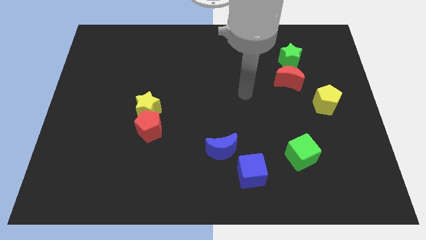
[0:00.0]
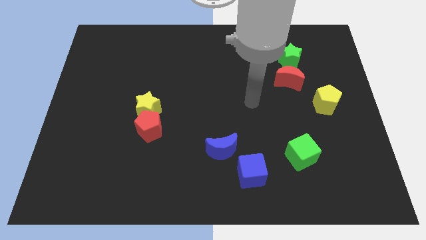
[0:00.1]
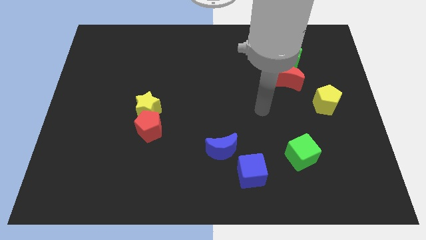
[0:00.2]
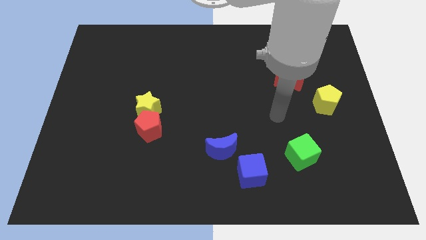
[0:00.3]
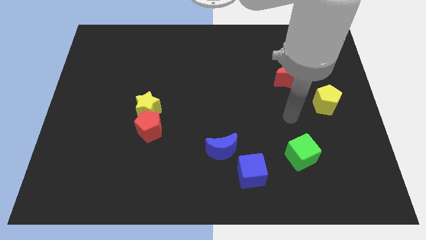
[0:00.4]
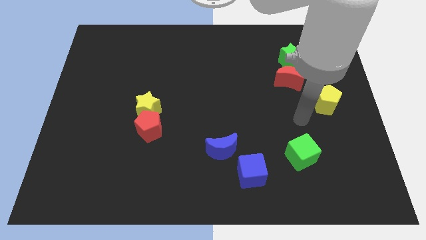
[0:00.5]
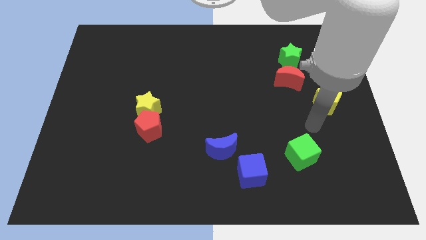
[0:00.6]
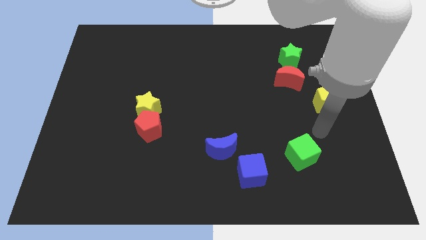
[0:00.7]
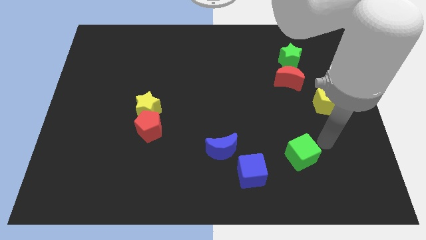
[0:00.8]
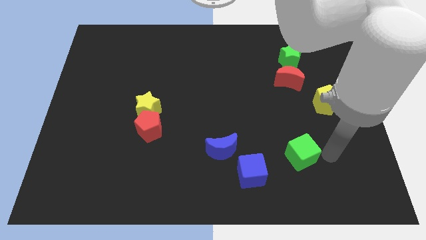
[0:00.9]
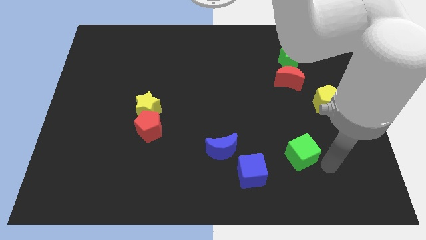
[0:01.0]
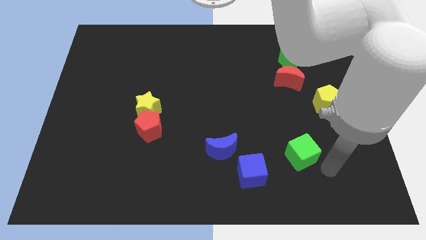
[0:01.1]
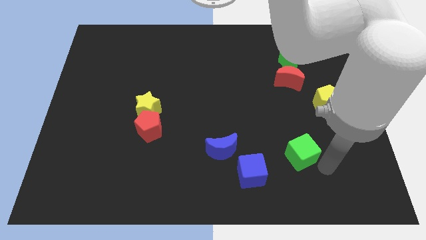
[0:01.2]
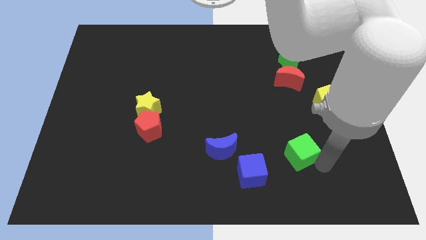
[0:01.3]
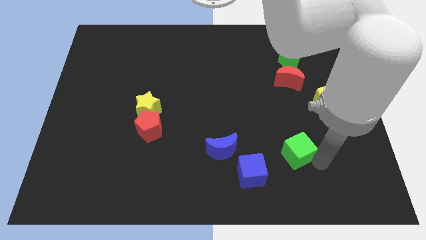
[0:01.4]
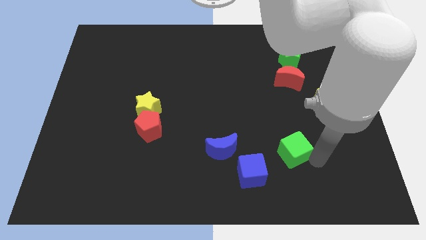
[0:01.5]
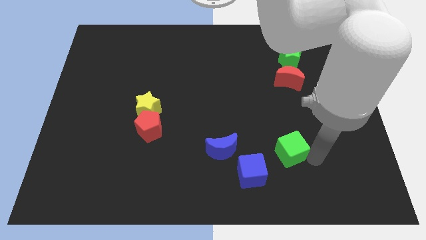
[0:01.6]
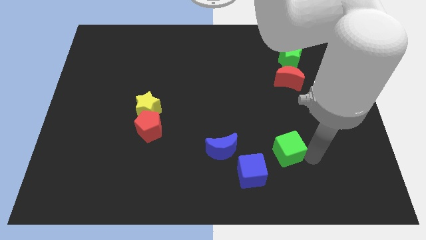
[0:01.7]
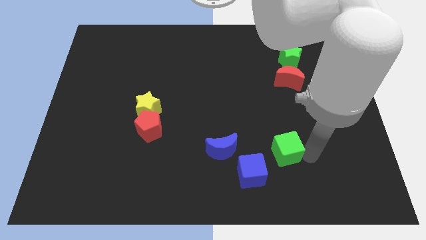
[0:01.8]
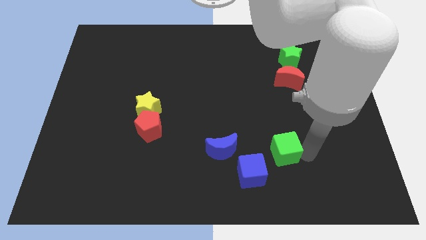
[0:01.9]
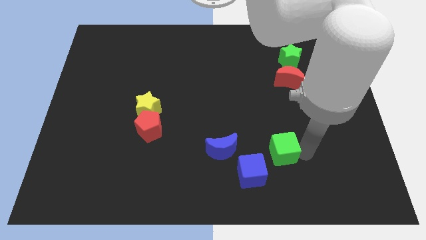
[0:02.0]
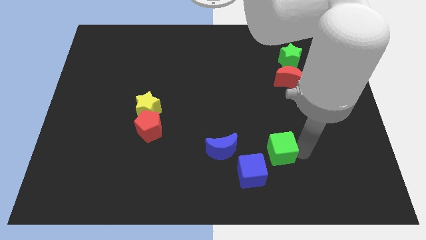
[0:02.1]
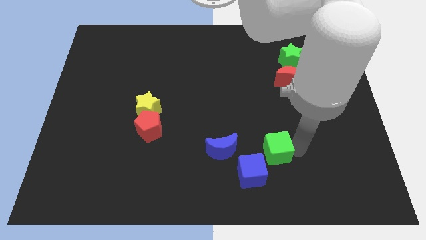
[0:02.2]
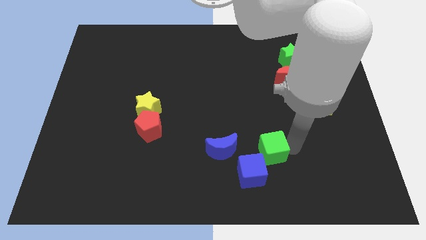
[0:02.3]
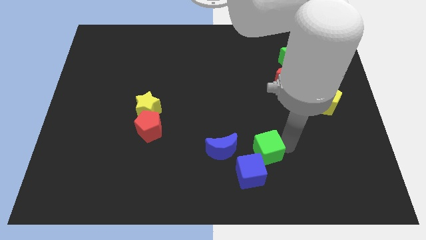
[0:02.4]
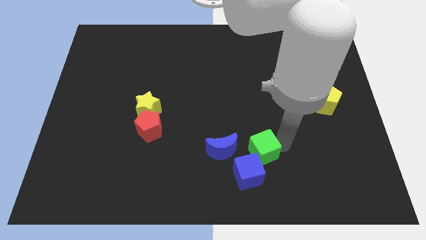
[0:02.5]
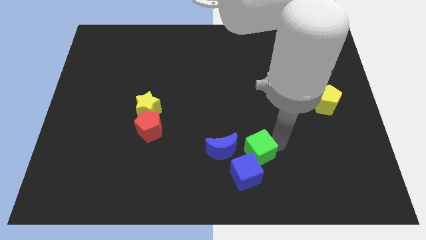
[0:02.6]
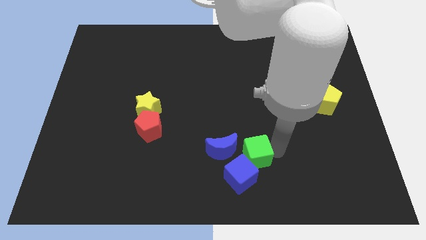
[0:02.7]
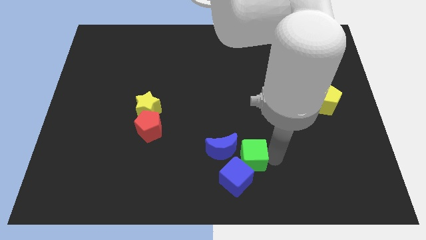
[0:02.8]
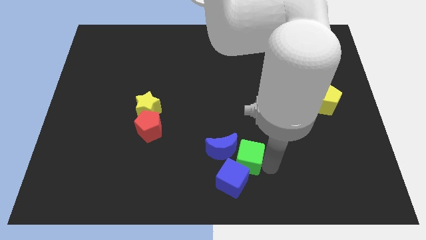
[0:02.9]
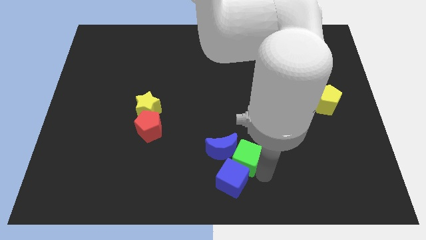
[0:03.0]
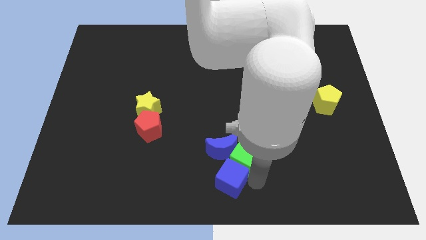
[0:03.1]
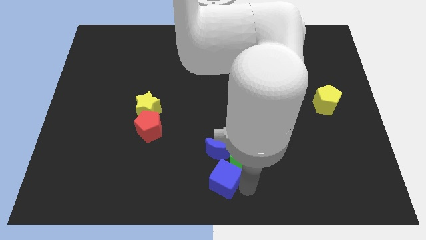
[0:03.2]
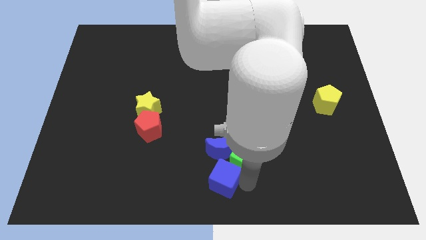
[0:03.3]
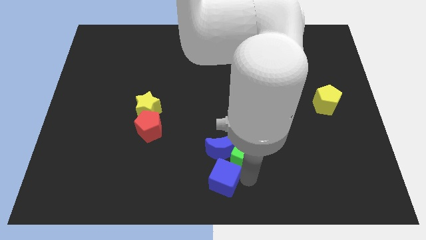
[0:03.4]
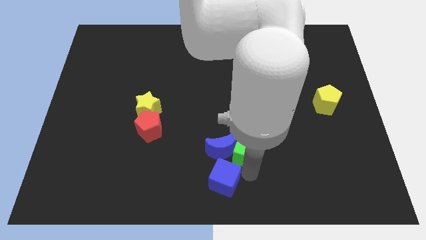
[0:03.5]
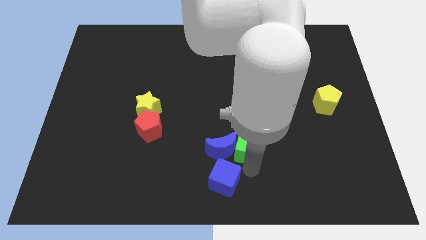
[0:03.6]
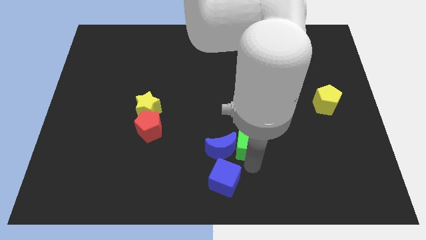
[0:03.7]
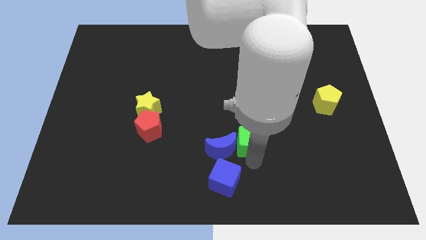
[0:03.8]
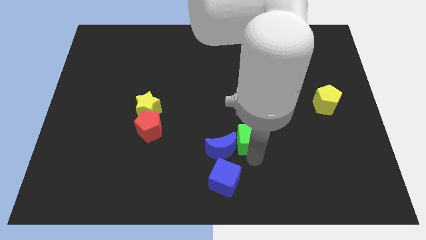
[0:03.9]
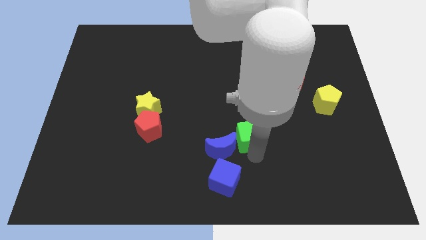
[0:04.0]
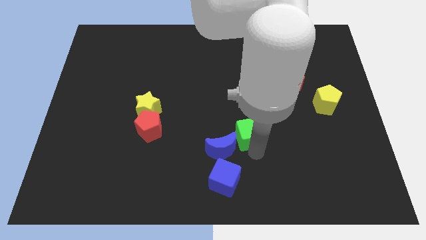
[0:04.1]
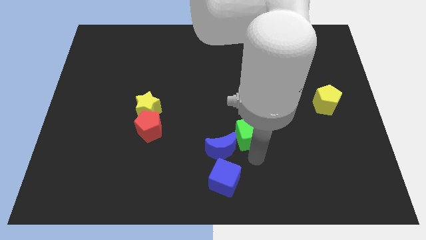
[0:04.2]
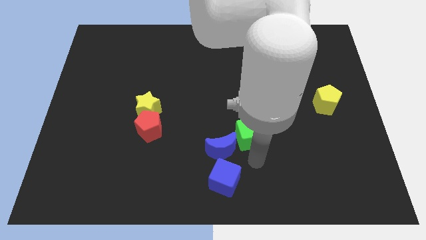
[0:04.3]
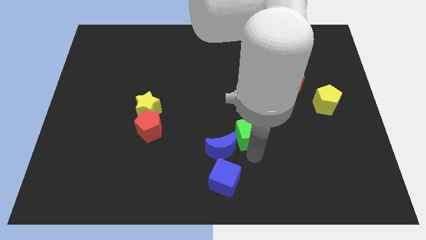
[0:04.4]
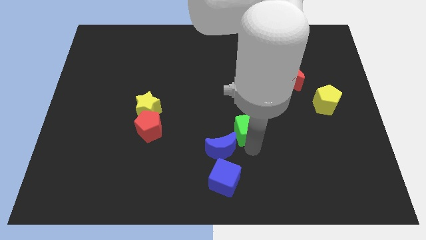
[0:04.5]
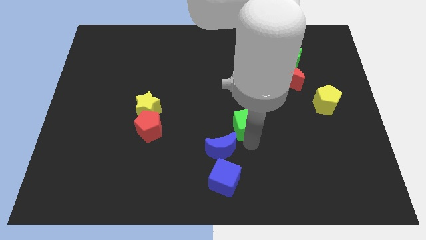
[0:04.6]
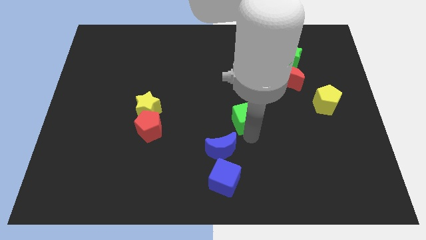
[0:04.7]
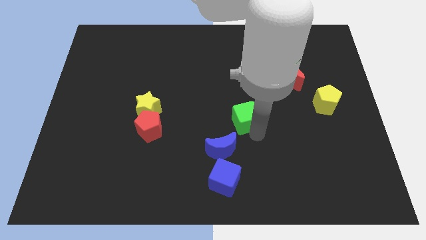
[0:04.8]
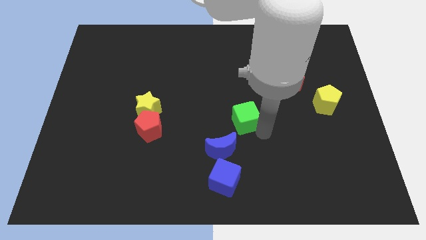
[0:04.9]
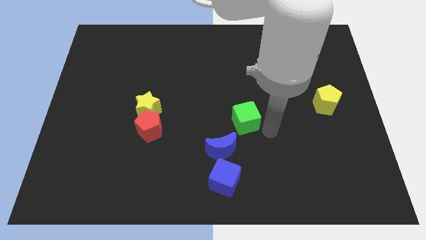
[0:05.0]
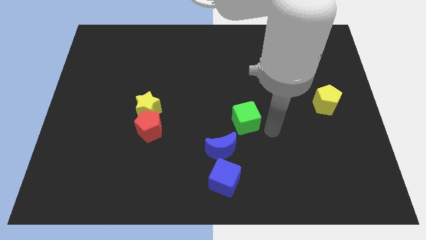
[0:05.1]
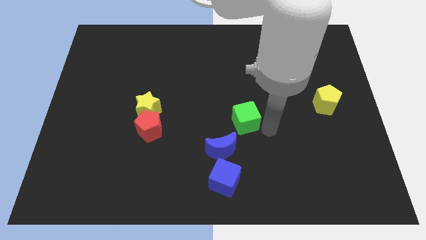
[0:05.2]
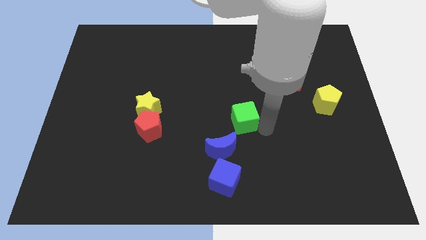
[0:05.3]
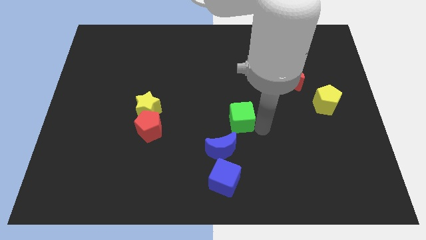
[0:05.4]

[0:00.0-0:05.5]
put the green cube to the top of the blue moon

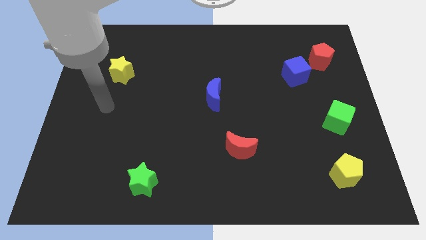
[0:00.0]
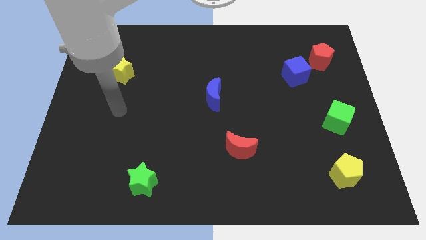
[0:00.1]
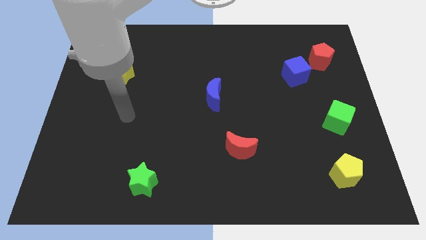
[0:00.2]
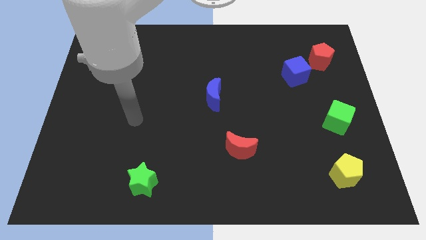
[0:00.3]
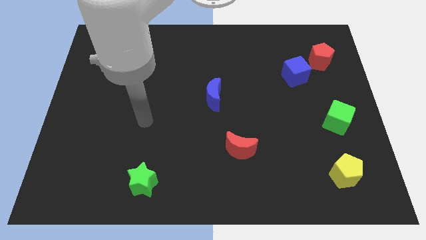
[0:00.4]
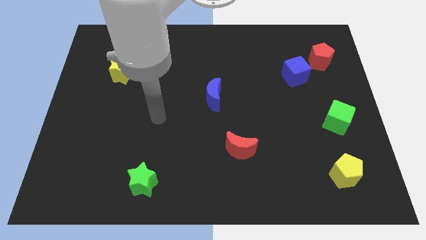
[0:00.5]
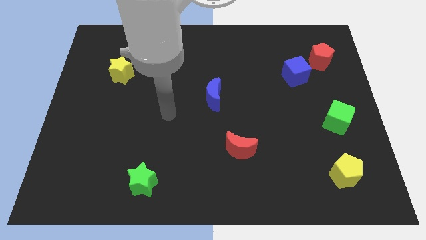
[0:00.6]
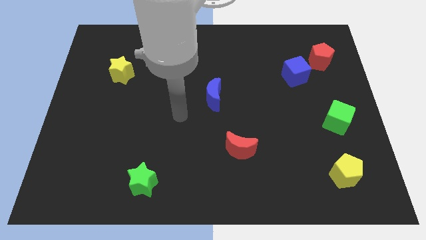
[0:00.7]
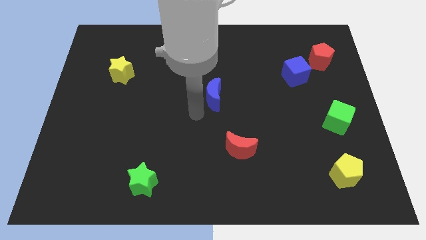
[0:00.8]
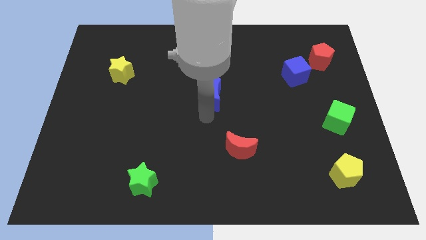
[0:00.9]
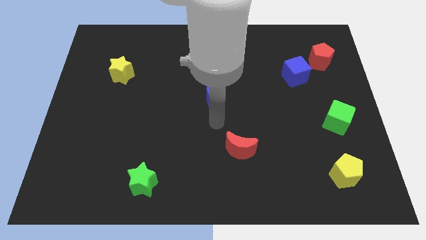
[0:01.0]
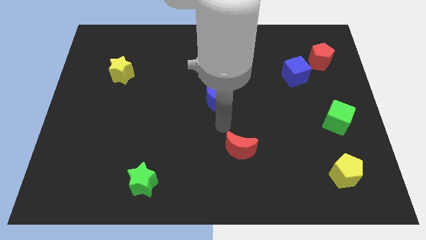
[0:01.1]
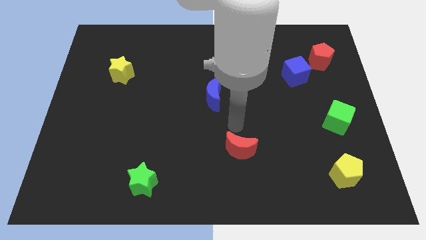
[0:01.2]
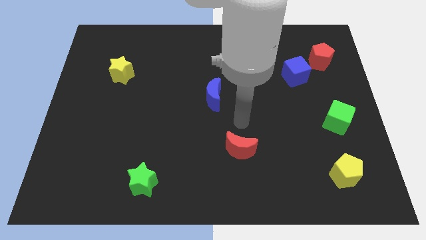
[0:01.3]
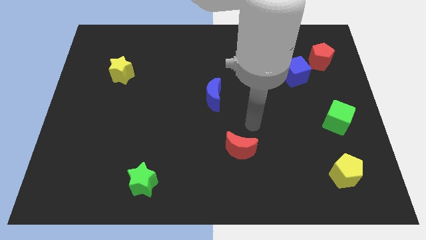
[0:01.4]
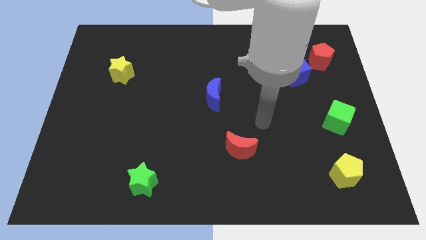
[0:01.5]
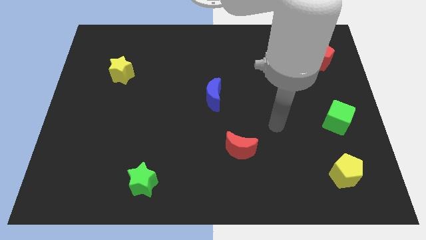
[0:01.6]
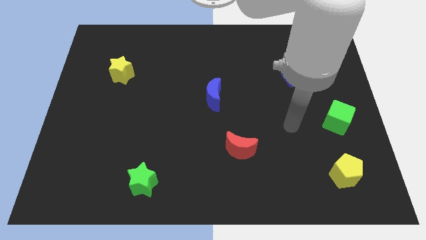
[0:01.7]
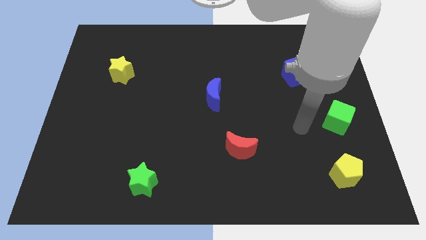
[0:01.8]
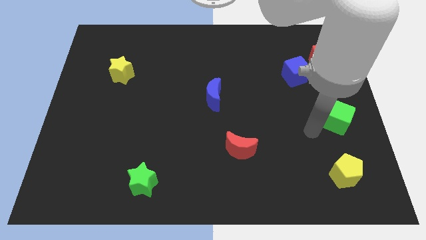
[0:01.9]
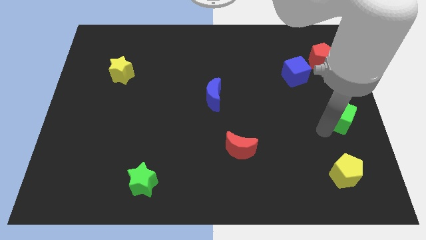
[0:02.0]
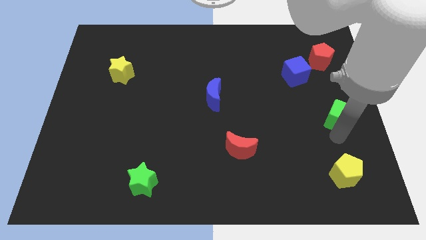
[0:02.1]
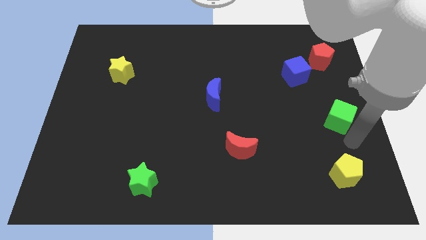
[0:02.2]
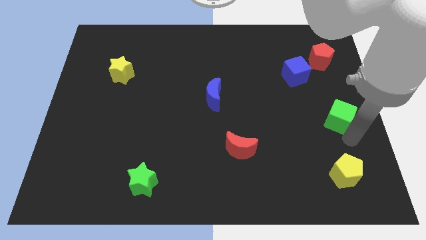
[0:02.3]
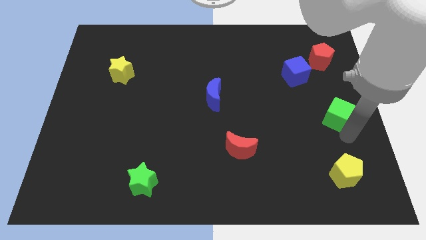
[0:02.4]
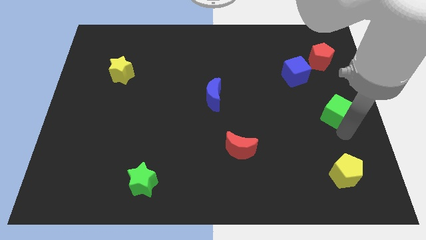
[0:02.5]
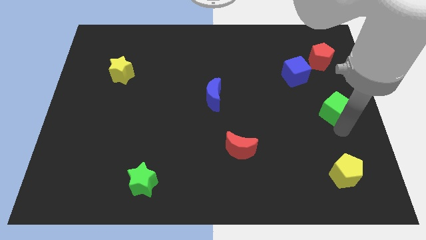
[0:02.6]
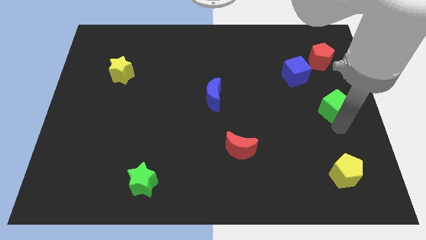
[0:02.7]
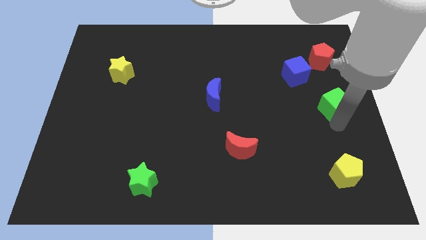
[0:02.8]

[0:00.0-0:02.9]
put the green cube diagonally down and to the right of the blue cube
